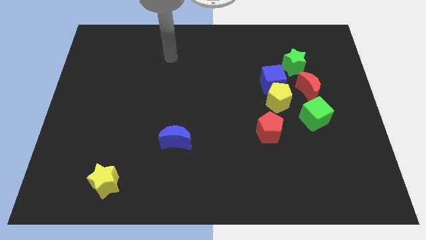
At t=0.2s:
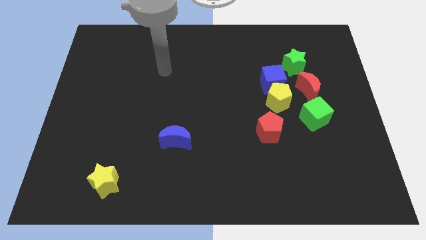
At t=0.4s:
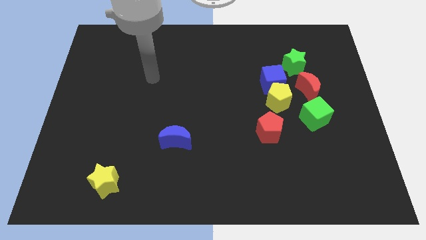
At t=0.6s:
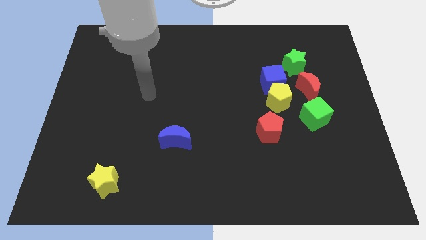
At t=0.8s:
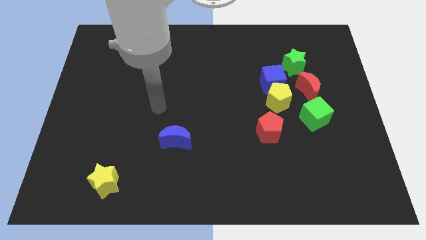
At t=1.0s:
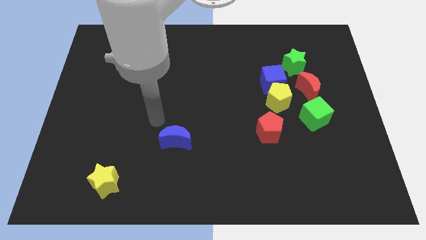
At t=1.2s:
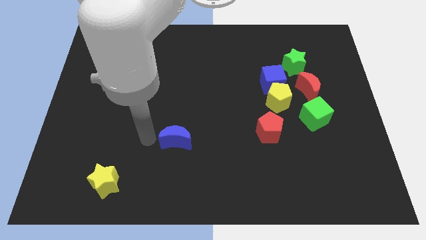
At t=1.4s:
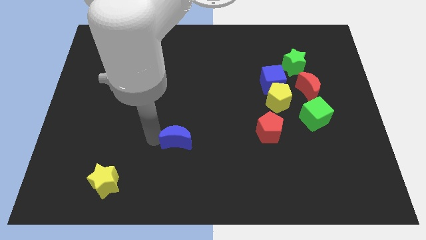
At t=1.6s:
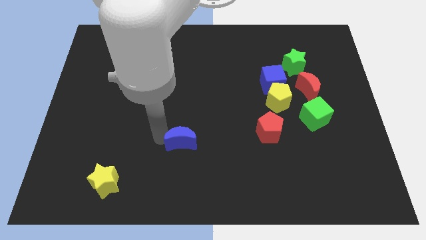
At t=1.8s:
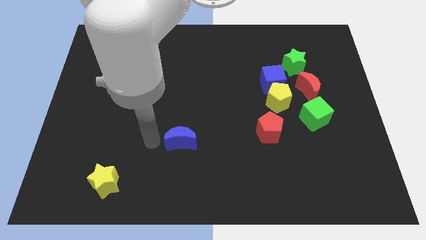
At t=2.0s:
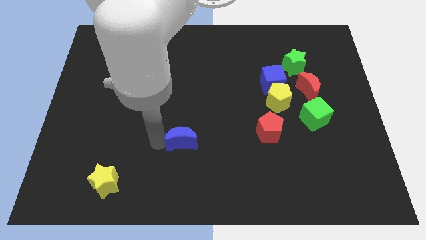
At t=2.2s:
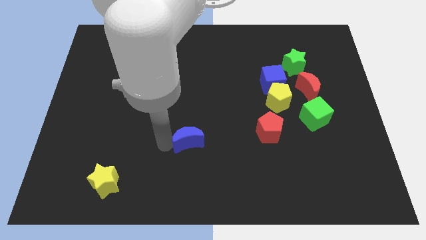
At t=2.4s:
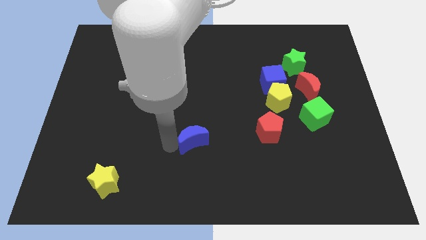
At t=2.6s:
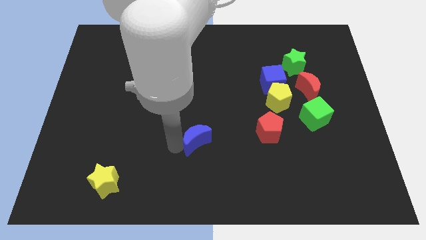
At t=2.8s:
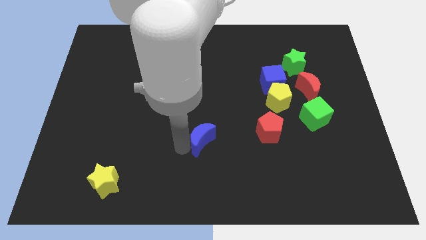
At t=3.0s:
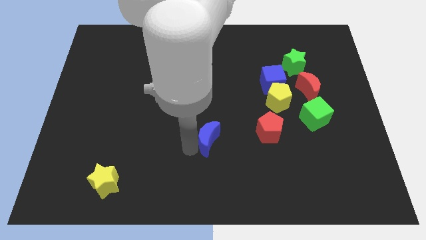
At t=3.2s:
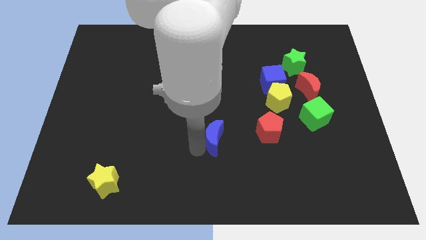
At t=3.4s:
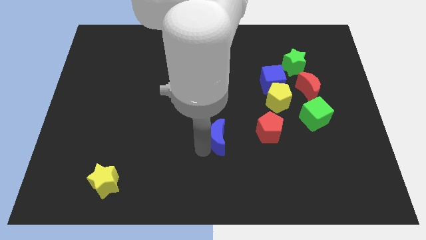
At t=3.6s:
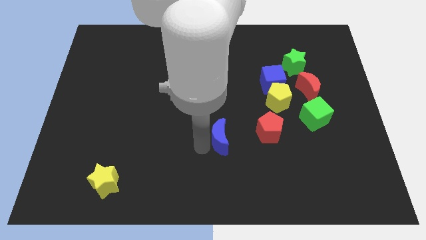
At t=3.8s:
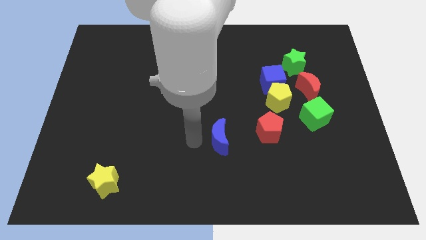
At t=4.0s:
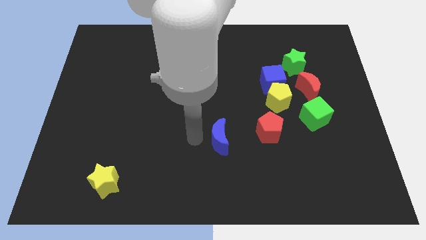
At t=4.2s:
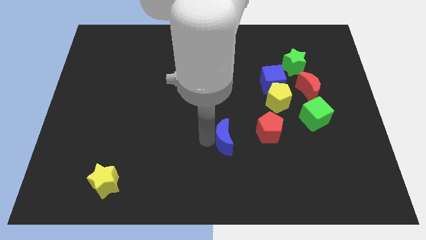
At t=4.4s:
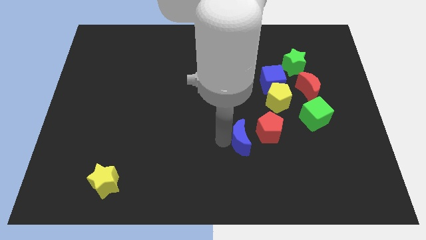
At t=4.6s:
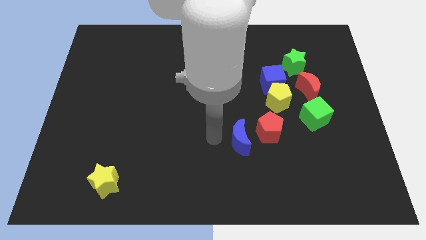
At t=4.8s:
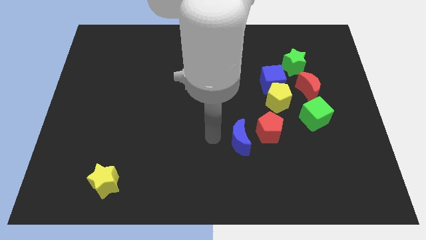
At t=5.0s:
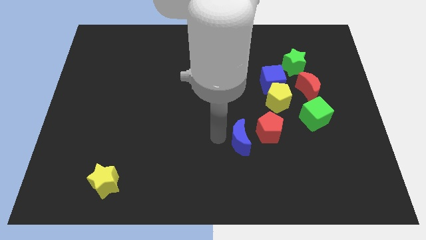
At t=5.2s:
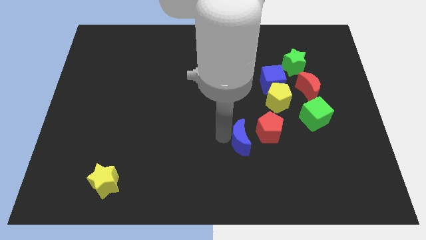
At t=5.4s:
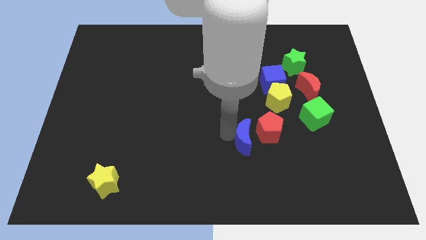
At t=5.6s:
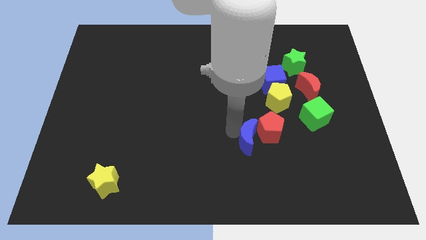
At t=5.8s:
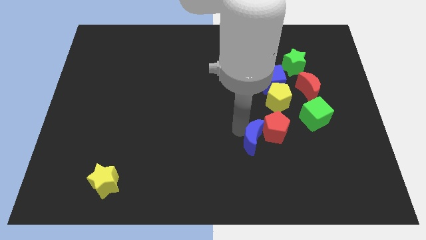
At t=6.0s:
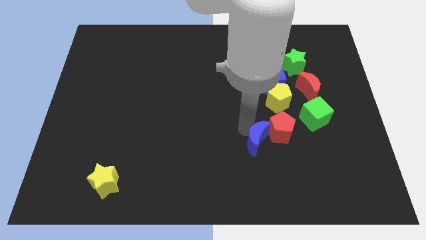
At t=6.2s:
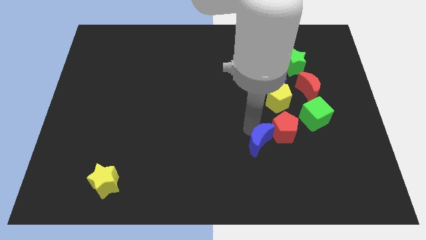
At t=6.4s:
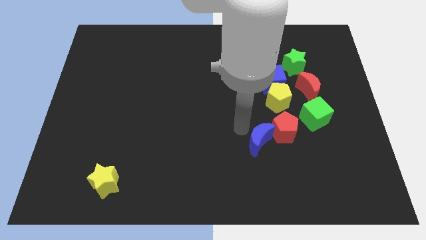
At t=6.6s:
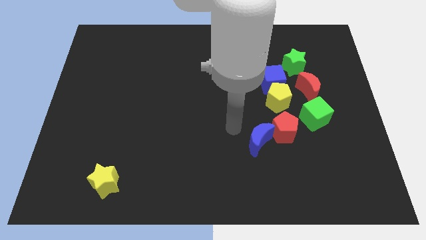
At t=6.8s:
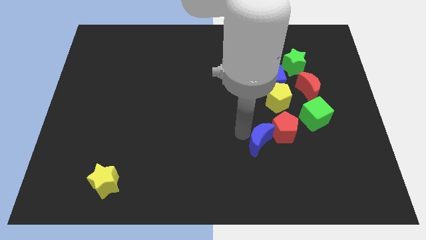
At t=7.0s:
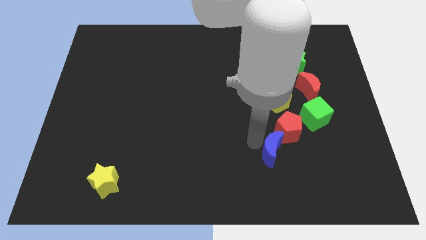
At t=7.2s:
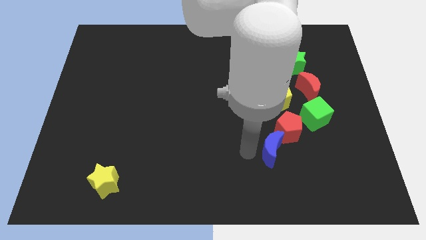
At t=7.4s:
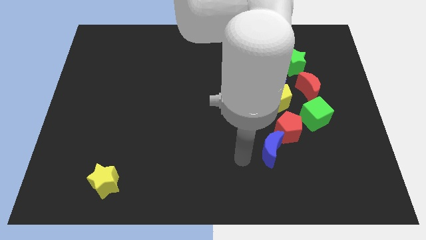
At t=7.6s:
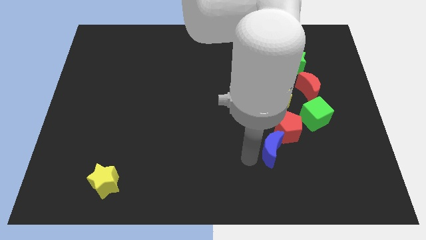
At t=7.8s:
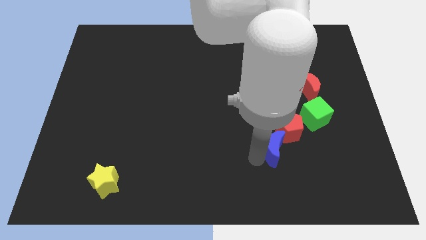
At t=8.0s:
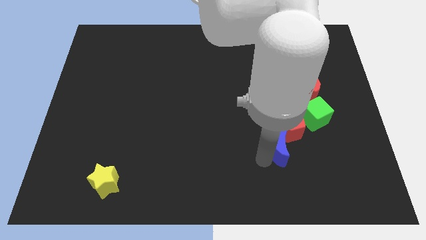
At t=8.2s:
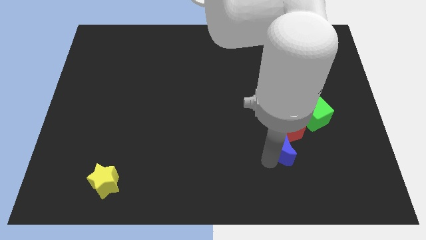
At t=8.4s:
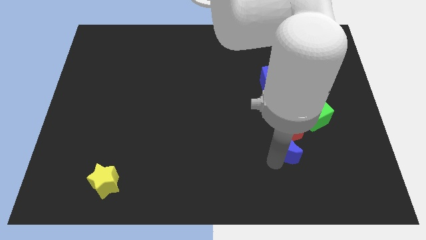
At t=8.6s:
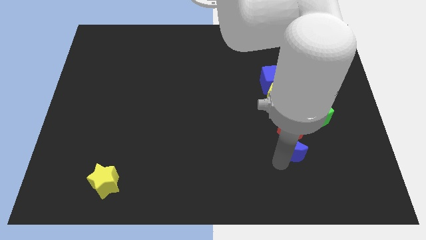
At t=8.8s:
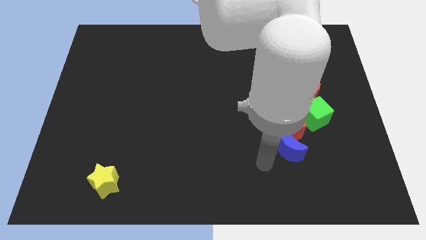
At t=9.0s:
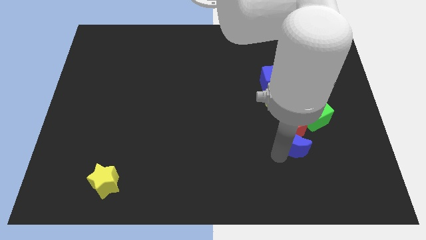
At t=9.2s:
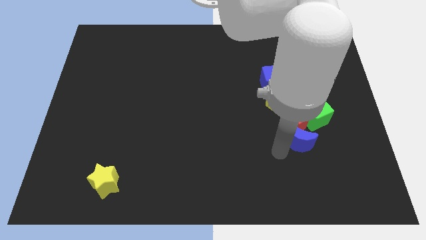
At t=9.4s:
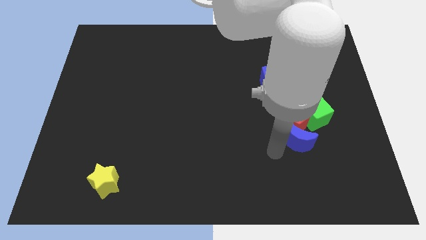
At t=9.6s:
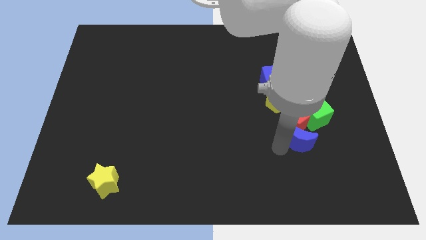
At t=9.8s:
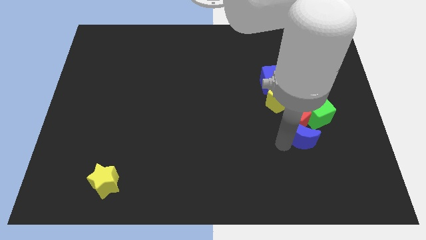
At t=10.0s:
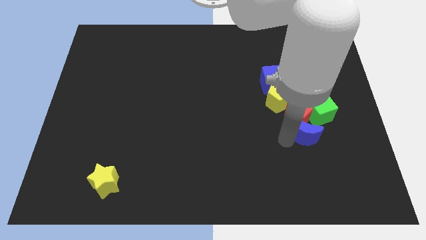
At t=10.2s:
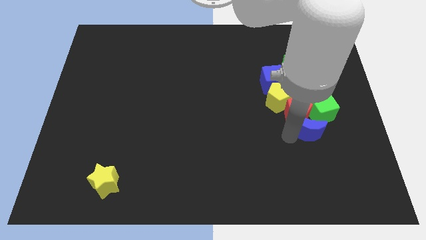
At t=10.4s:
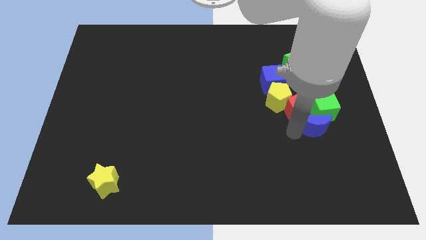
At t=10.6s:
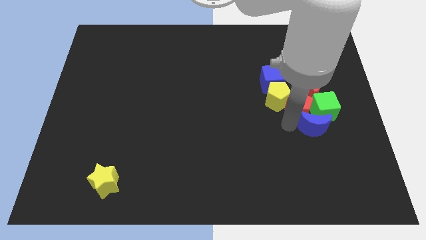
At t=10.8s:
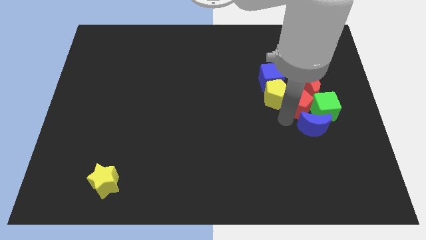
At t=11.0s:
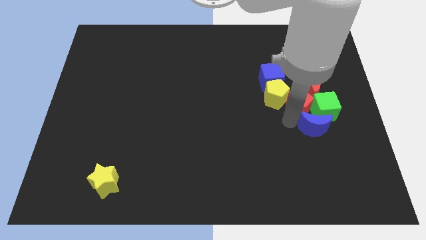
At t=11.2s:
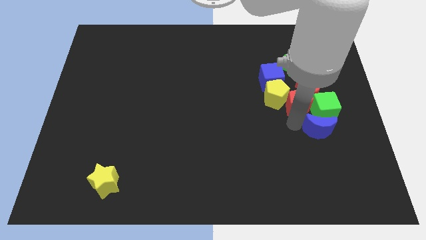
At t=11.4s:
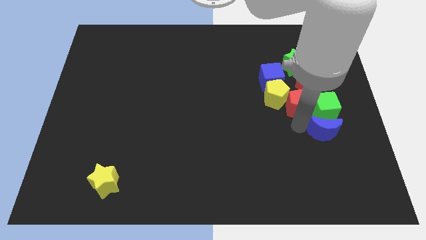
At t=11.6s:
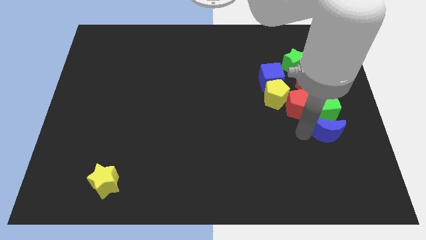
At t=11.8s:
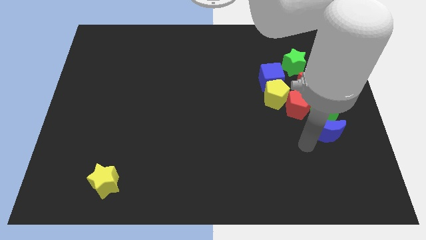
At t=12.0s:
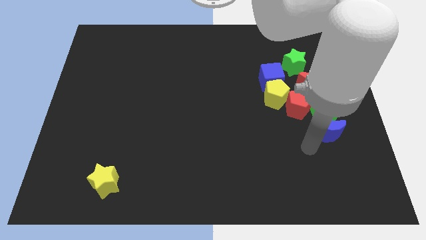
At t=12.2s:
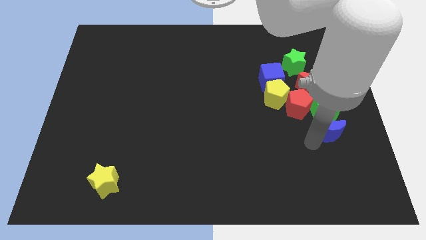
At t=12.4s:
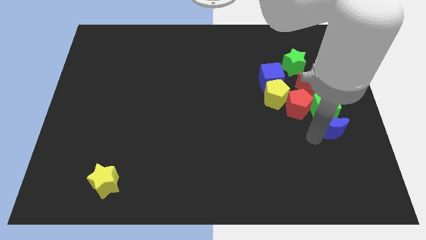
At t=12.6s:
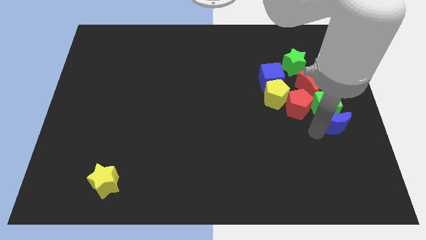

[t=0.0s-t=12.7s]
slide the blue moon to the right side of the board
